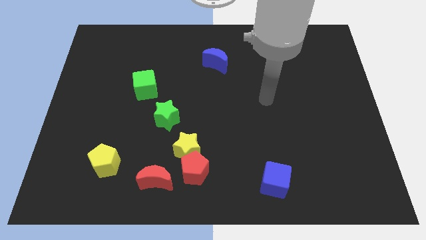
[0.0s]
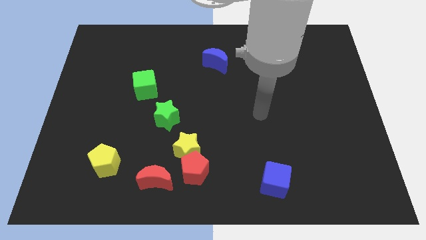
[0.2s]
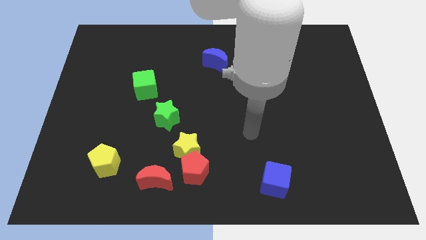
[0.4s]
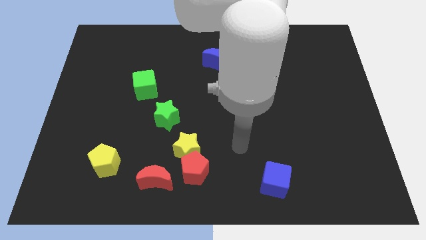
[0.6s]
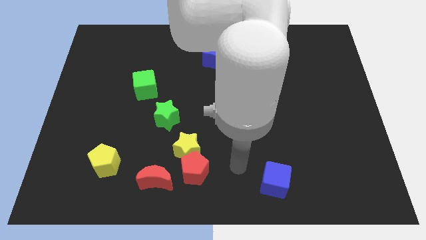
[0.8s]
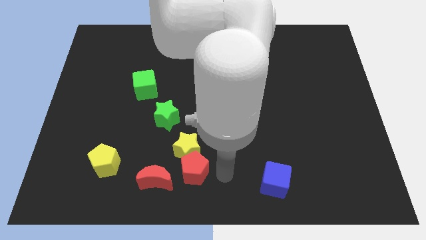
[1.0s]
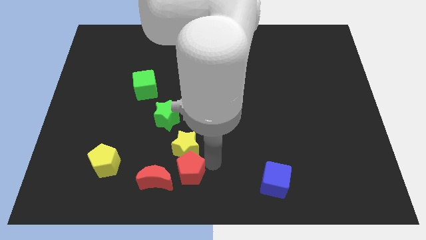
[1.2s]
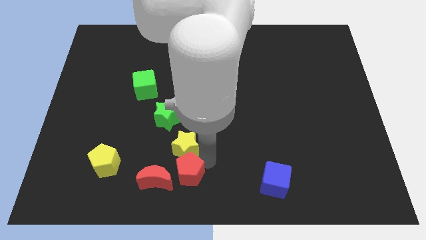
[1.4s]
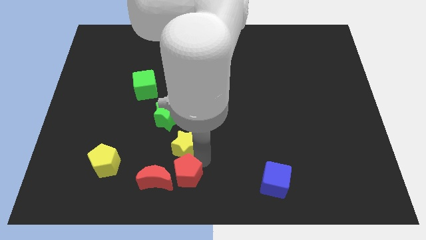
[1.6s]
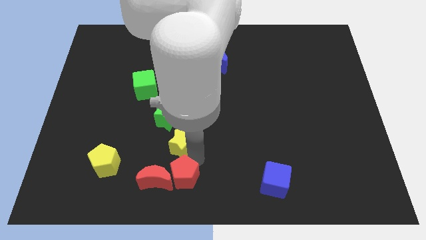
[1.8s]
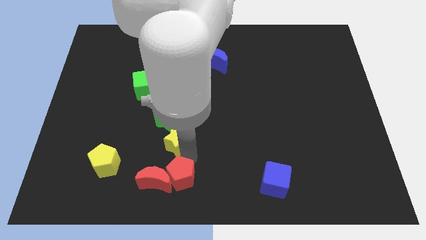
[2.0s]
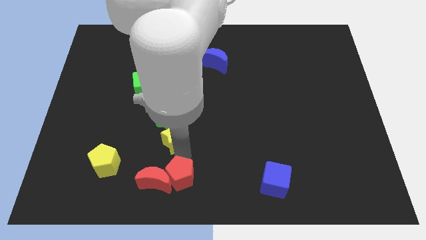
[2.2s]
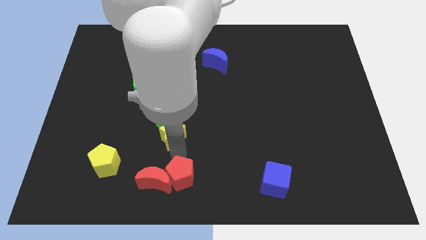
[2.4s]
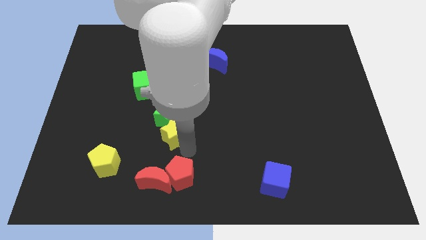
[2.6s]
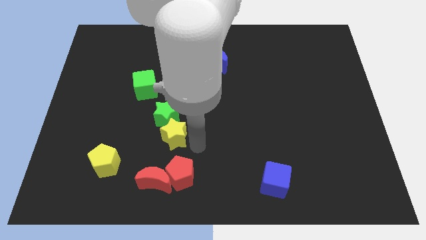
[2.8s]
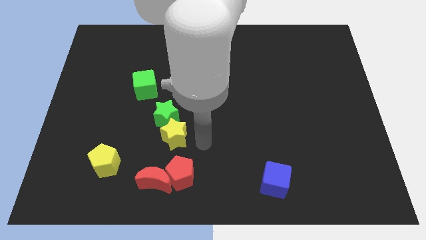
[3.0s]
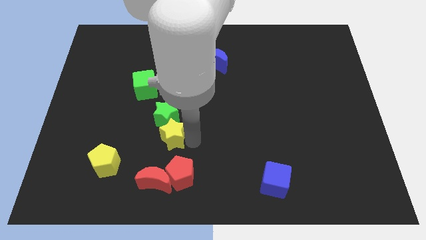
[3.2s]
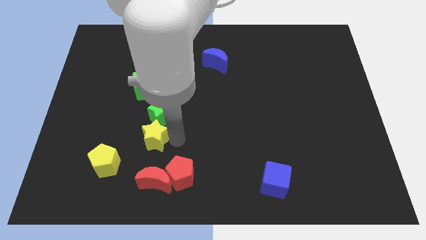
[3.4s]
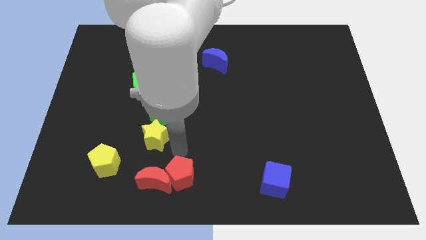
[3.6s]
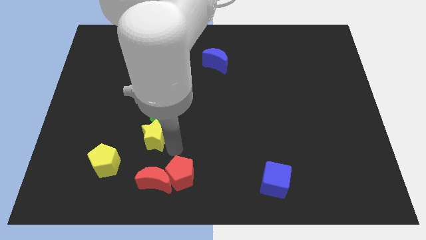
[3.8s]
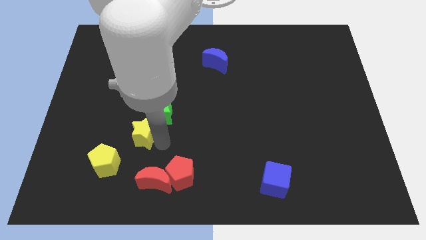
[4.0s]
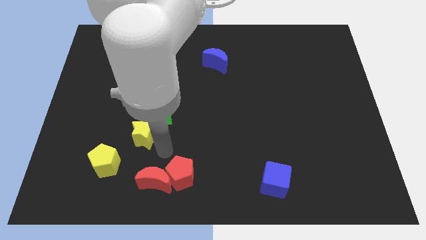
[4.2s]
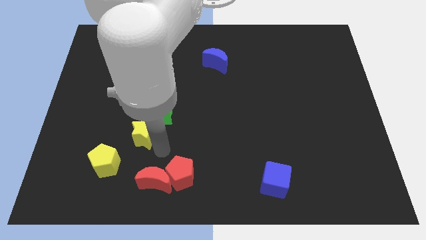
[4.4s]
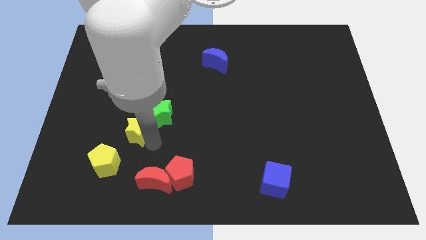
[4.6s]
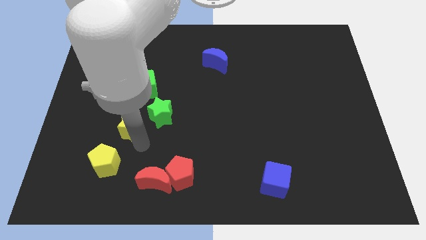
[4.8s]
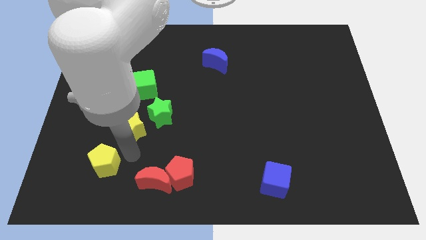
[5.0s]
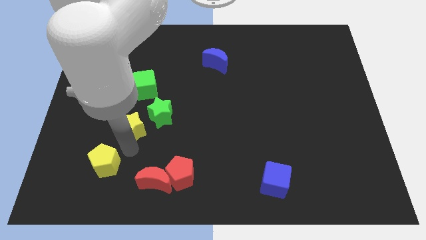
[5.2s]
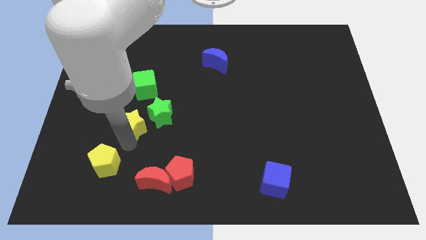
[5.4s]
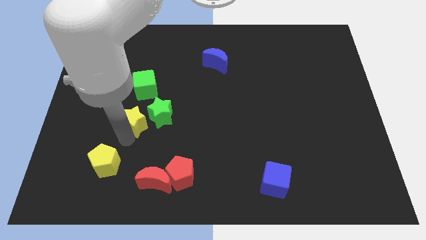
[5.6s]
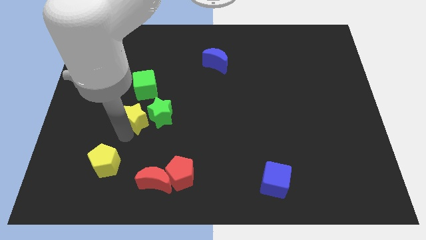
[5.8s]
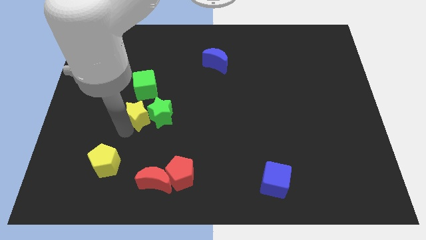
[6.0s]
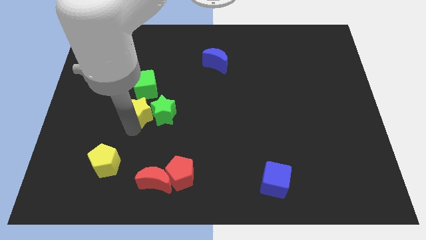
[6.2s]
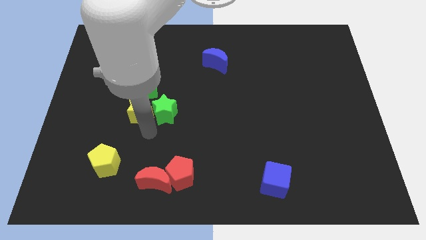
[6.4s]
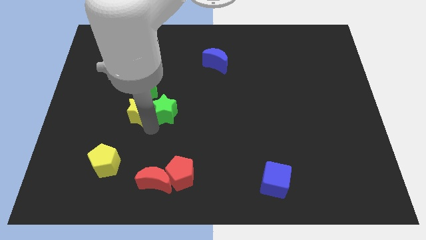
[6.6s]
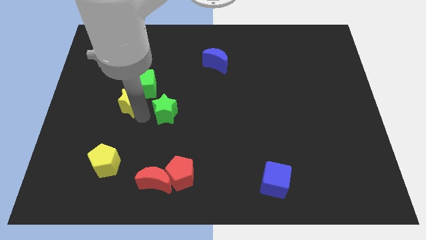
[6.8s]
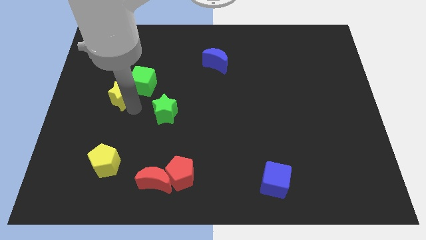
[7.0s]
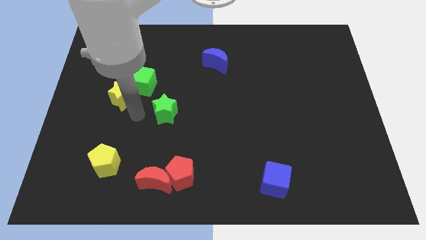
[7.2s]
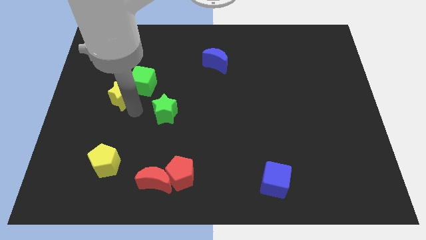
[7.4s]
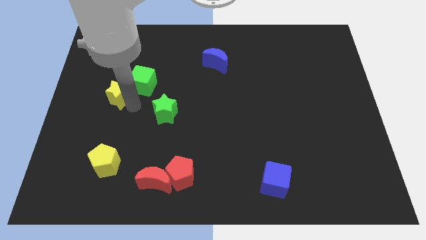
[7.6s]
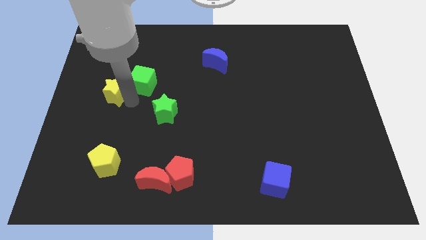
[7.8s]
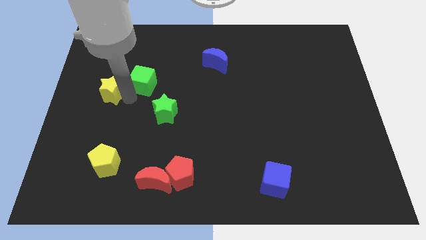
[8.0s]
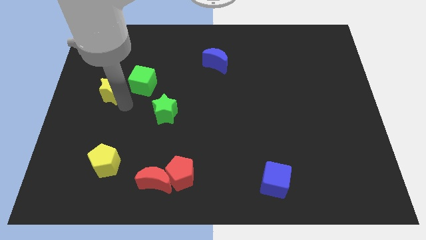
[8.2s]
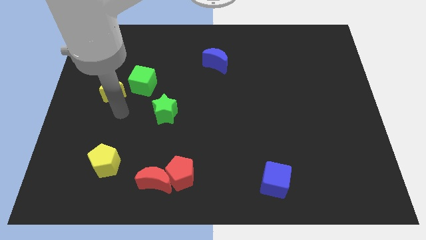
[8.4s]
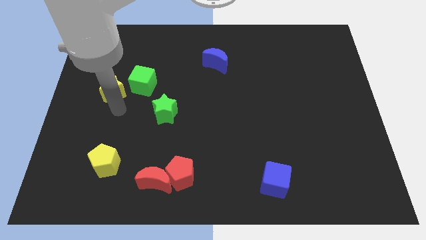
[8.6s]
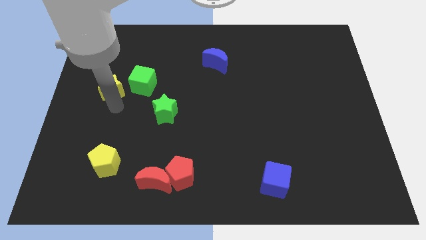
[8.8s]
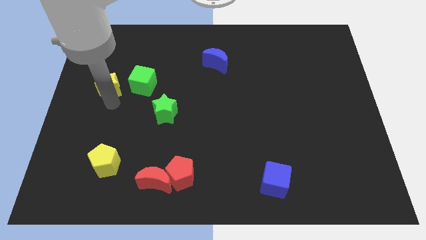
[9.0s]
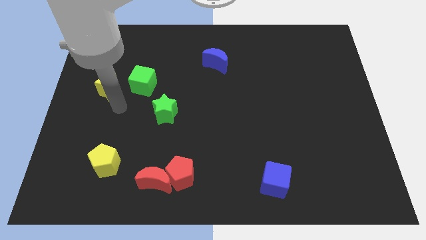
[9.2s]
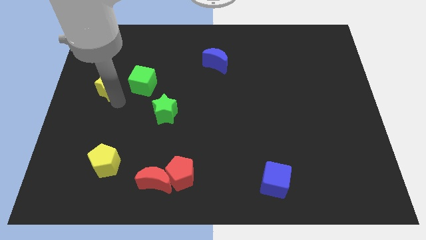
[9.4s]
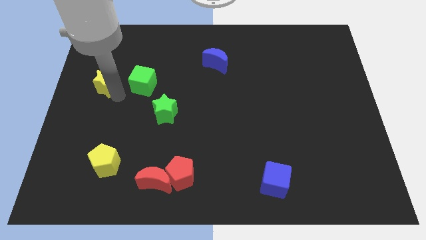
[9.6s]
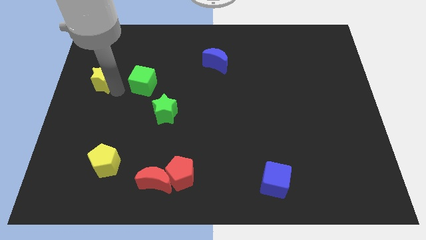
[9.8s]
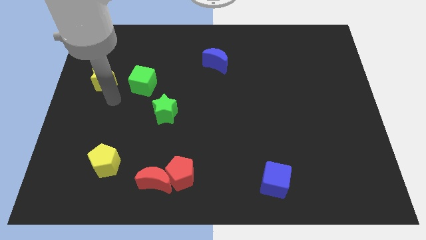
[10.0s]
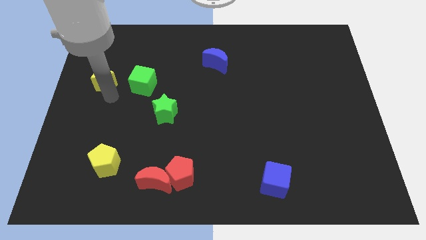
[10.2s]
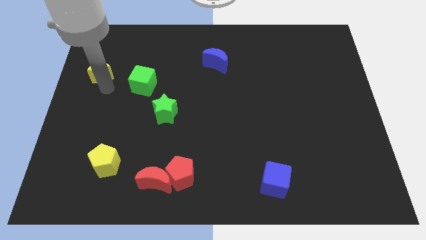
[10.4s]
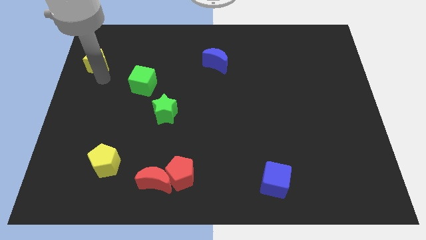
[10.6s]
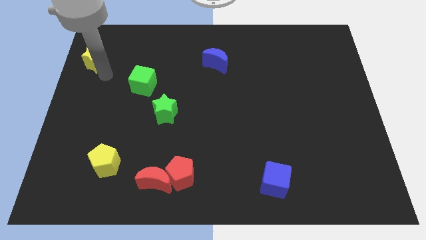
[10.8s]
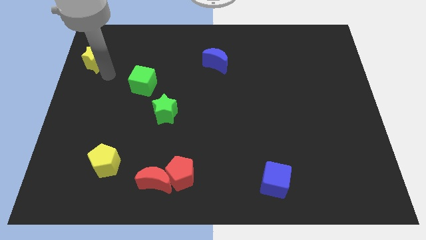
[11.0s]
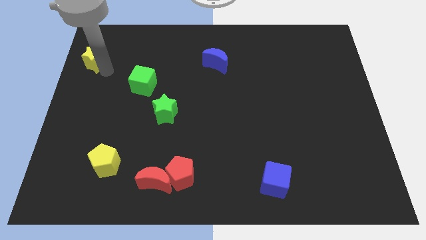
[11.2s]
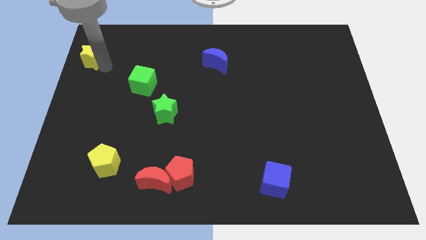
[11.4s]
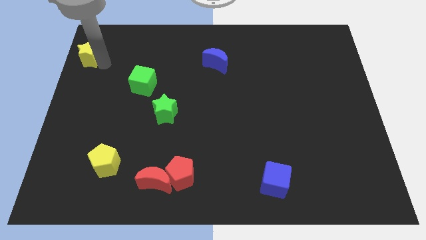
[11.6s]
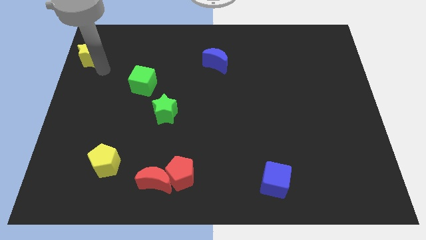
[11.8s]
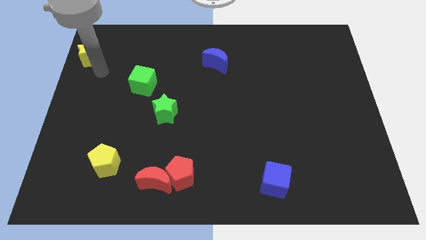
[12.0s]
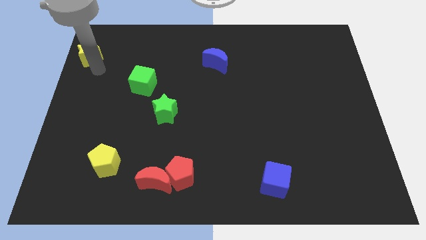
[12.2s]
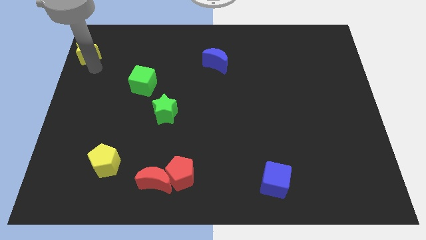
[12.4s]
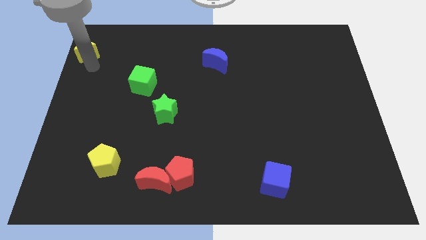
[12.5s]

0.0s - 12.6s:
push the yellow star to the upper left corner

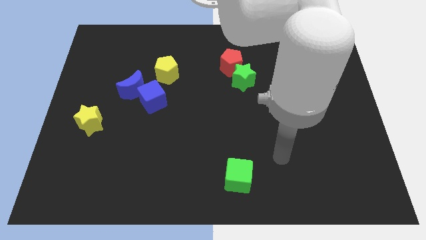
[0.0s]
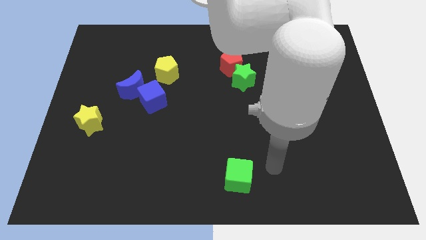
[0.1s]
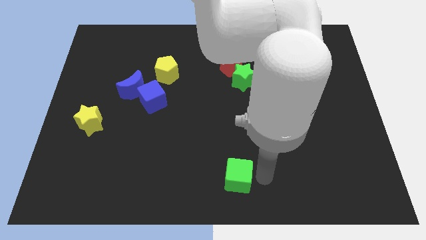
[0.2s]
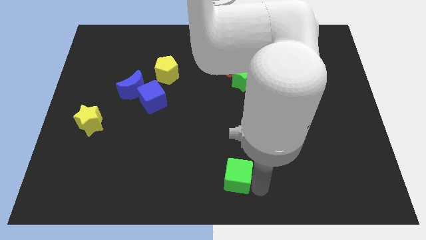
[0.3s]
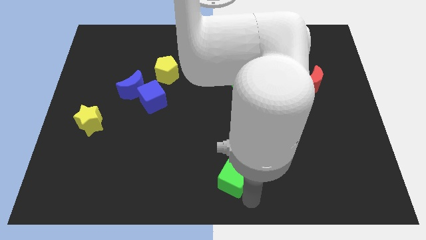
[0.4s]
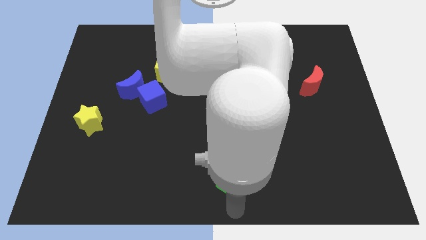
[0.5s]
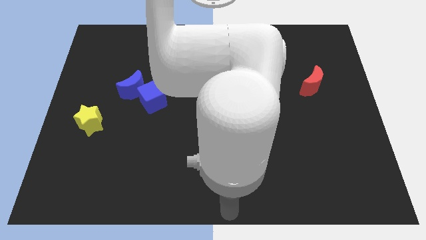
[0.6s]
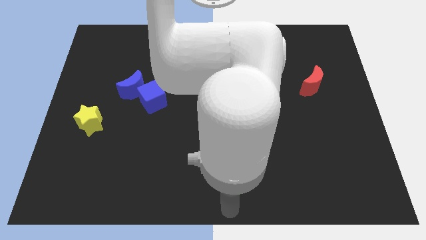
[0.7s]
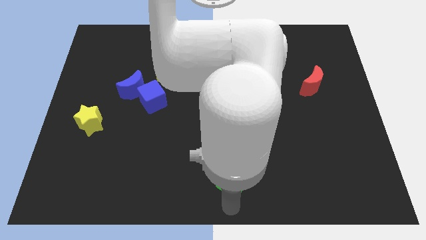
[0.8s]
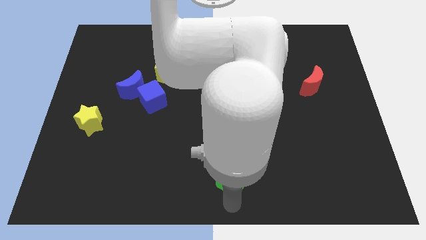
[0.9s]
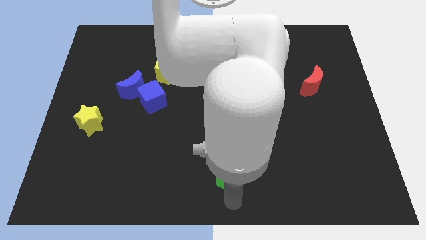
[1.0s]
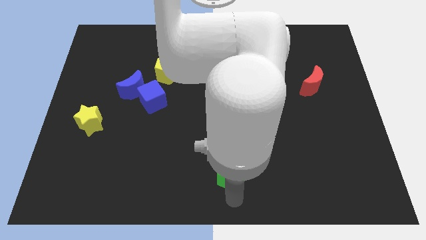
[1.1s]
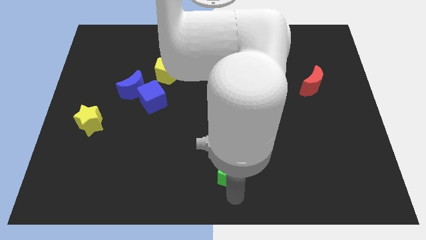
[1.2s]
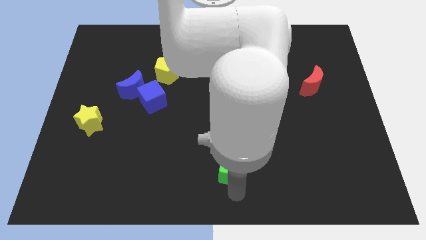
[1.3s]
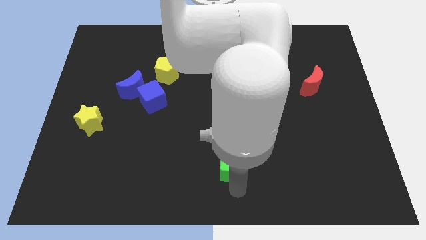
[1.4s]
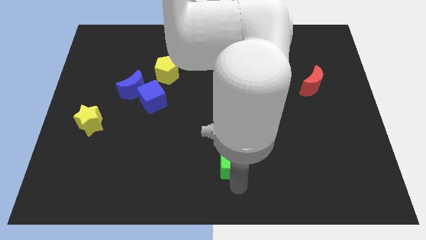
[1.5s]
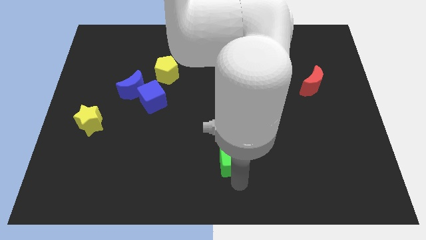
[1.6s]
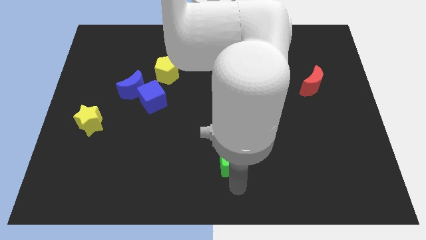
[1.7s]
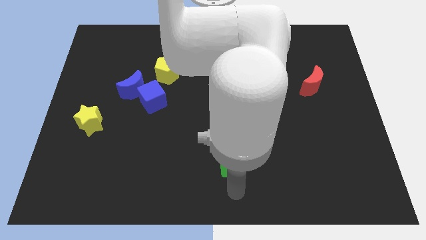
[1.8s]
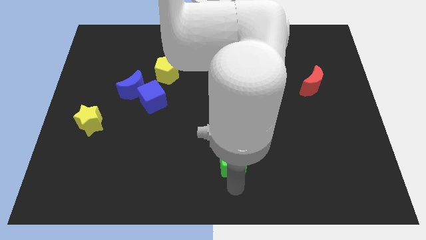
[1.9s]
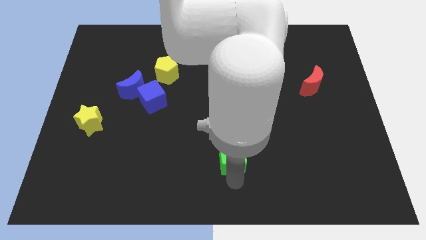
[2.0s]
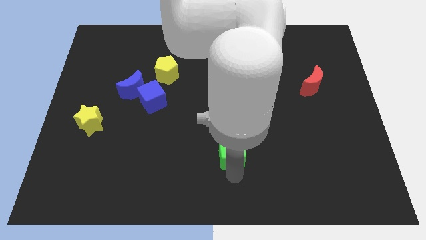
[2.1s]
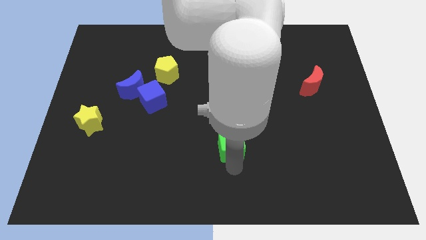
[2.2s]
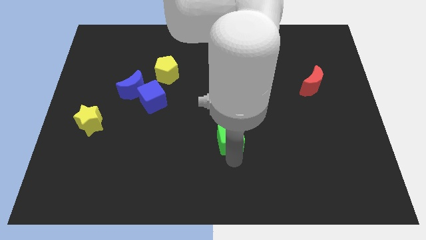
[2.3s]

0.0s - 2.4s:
push the green cube to the center
